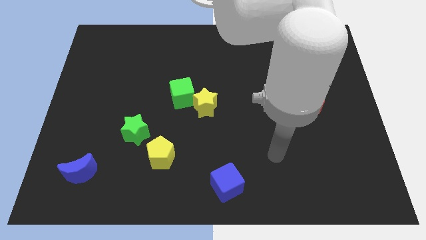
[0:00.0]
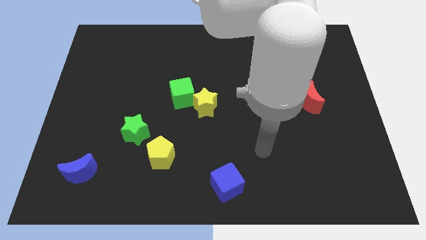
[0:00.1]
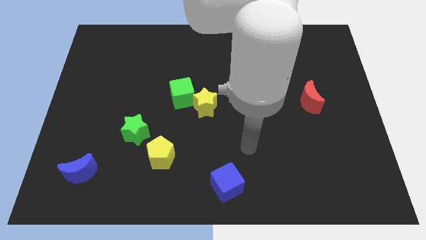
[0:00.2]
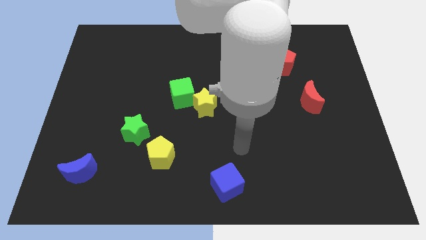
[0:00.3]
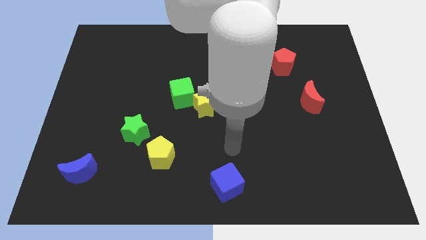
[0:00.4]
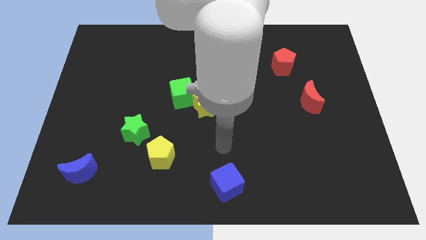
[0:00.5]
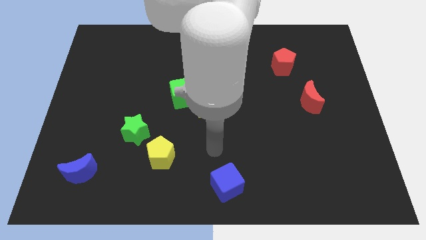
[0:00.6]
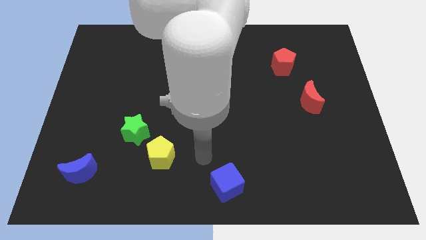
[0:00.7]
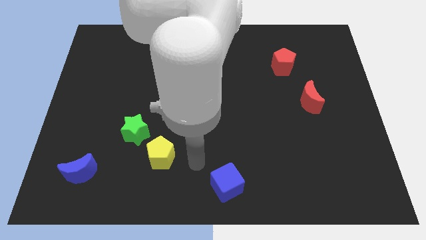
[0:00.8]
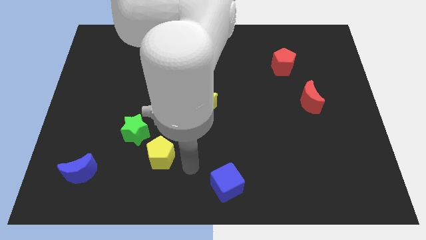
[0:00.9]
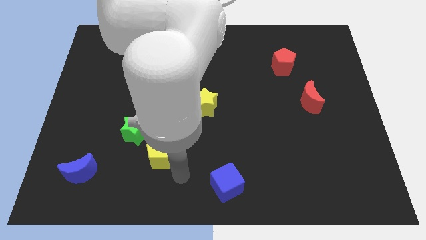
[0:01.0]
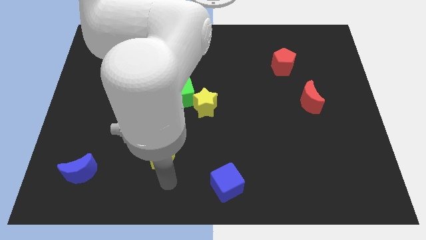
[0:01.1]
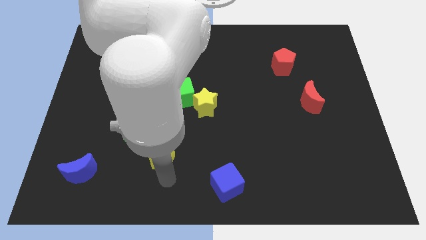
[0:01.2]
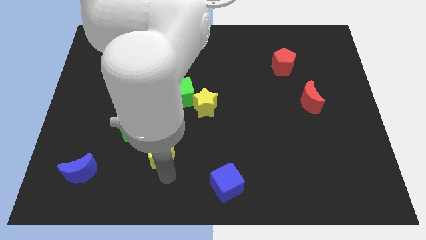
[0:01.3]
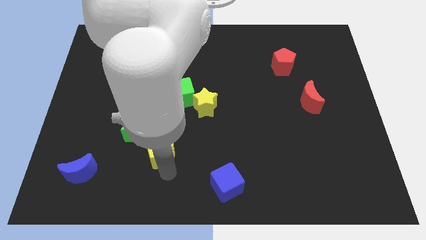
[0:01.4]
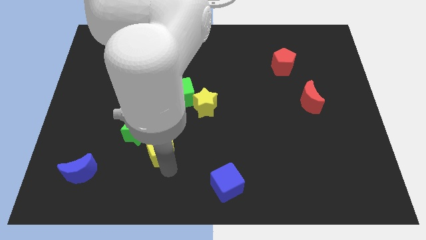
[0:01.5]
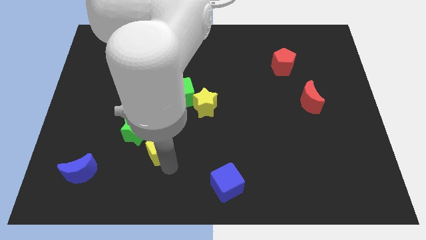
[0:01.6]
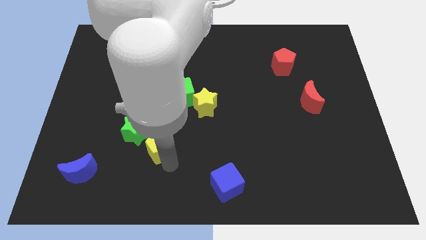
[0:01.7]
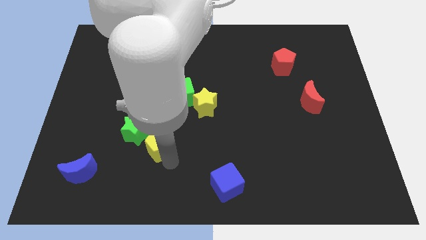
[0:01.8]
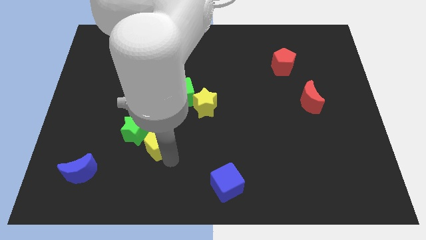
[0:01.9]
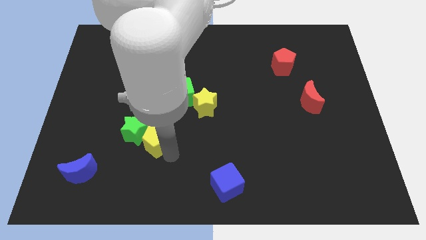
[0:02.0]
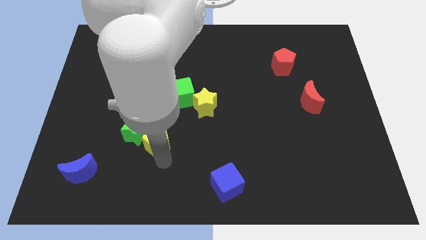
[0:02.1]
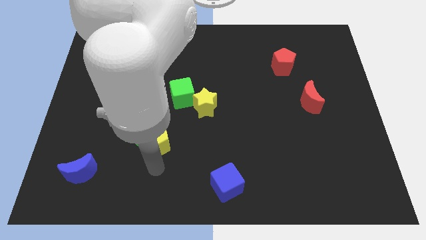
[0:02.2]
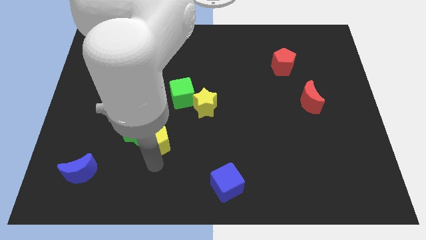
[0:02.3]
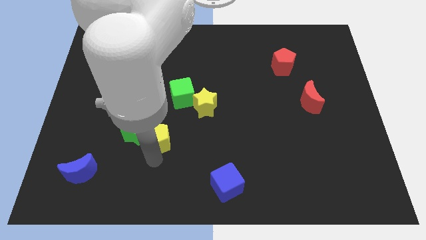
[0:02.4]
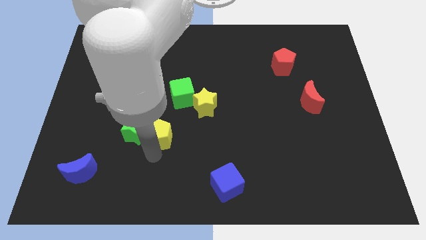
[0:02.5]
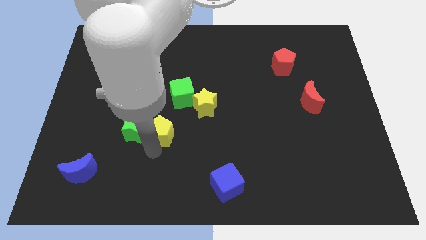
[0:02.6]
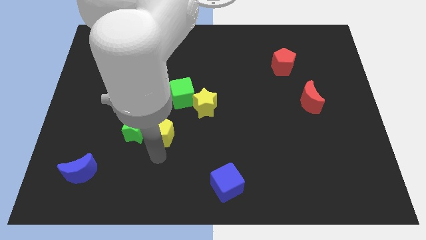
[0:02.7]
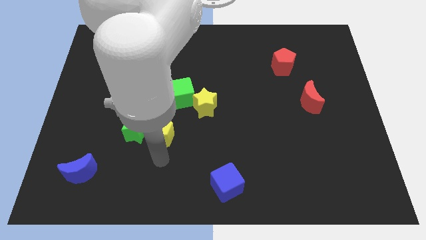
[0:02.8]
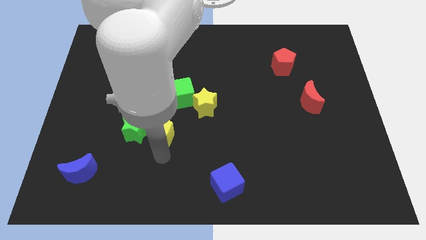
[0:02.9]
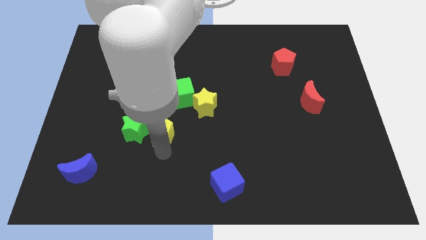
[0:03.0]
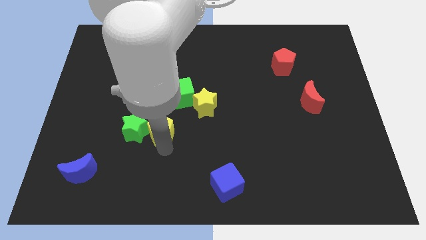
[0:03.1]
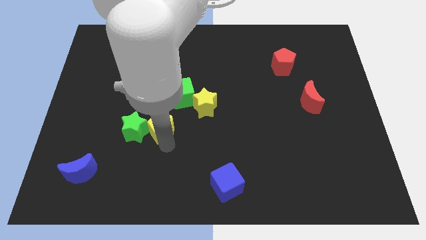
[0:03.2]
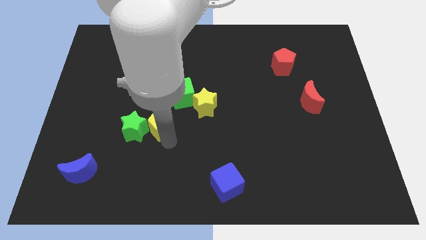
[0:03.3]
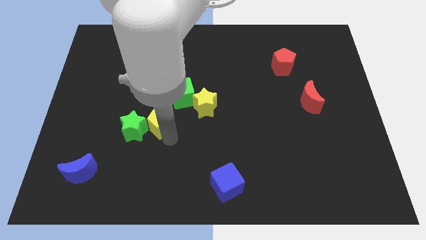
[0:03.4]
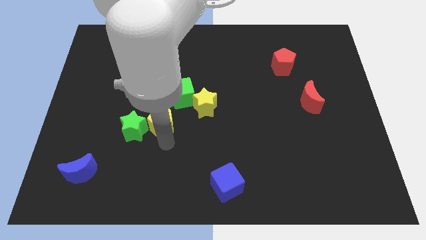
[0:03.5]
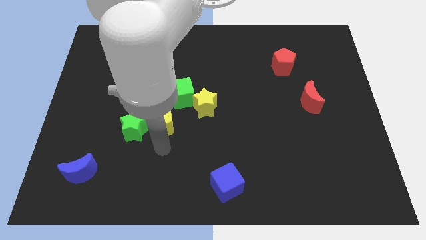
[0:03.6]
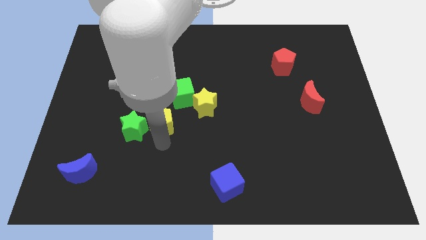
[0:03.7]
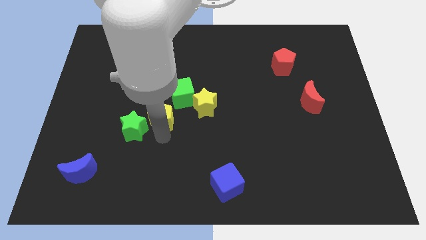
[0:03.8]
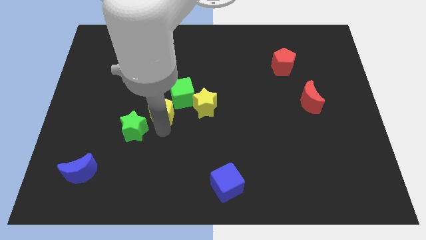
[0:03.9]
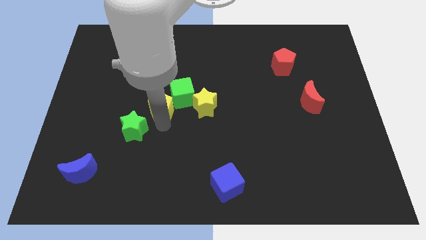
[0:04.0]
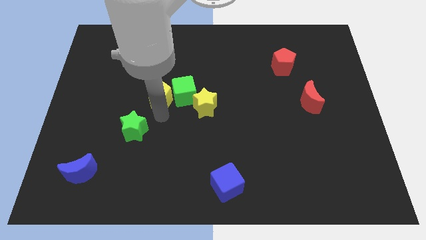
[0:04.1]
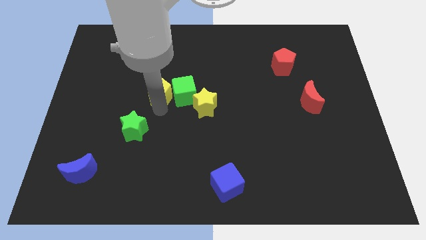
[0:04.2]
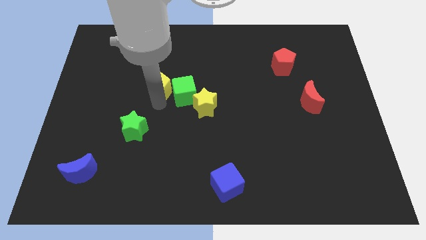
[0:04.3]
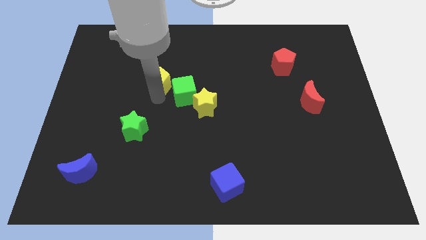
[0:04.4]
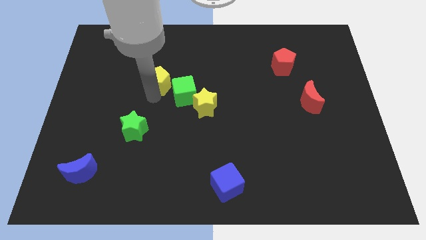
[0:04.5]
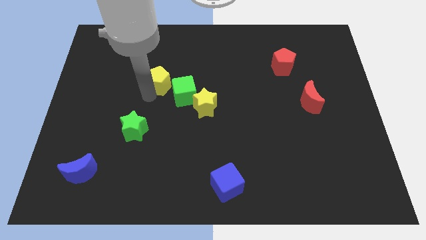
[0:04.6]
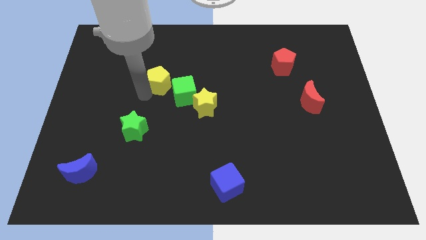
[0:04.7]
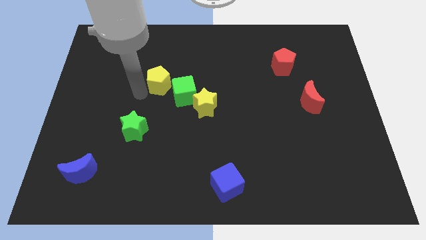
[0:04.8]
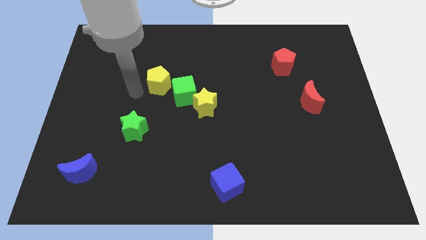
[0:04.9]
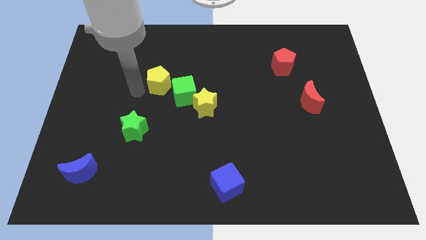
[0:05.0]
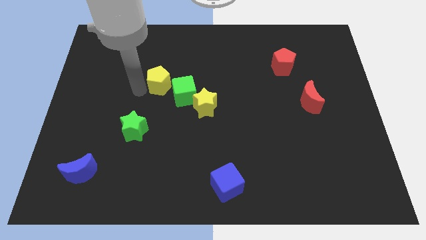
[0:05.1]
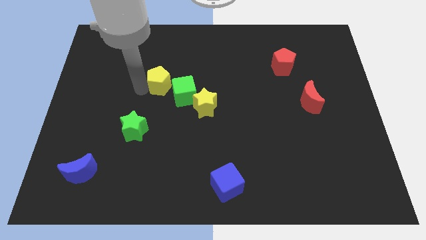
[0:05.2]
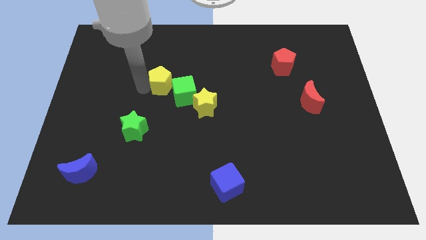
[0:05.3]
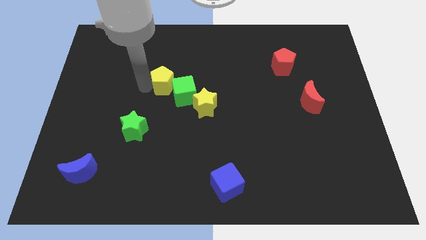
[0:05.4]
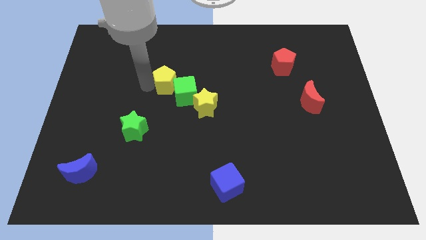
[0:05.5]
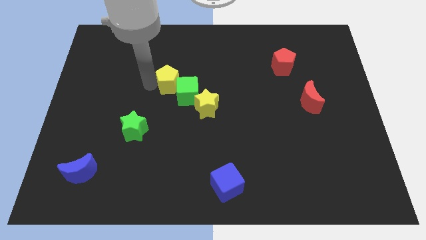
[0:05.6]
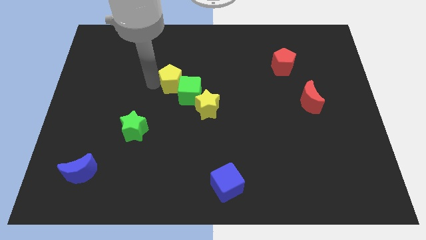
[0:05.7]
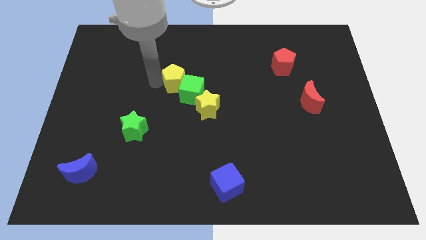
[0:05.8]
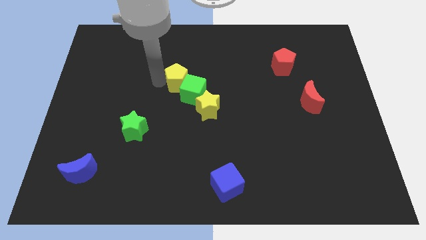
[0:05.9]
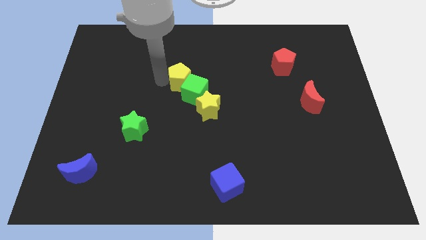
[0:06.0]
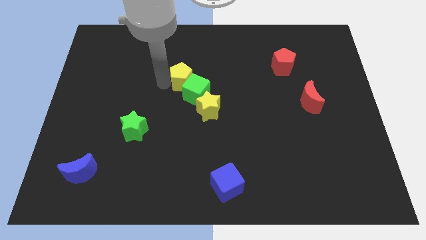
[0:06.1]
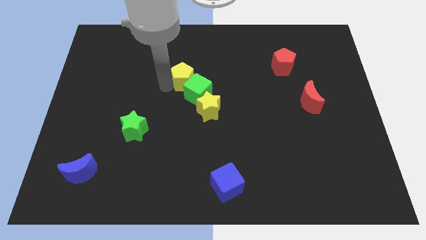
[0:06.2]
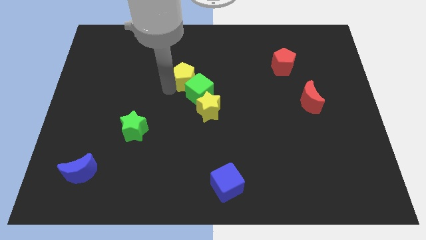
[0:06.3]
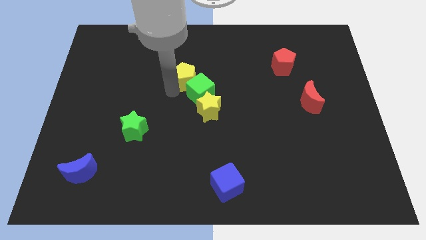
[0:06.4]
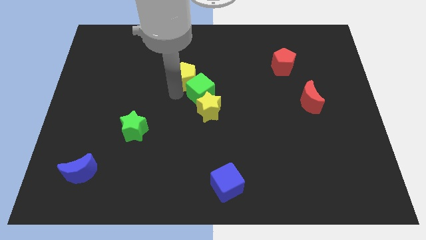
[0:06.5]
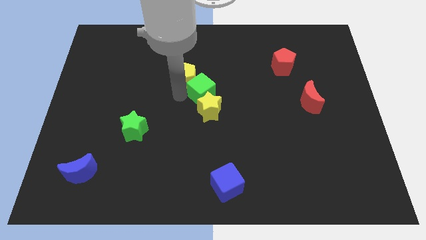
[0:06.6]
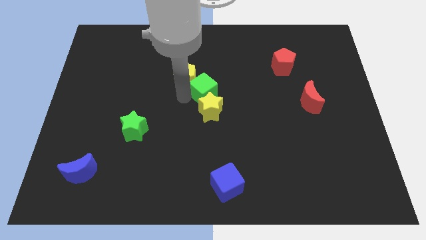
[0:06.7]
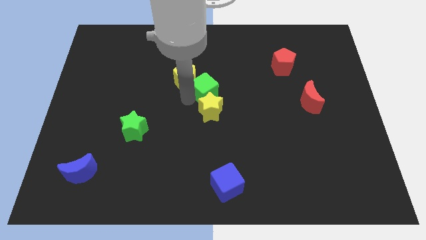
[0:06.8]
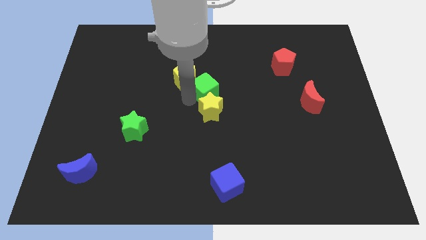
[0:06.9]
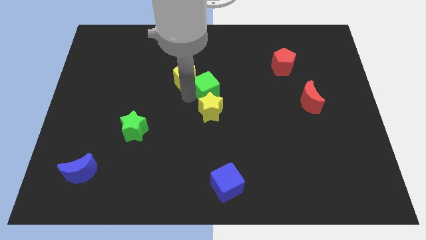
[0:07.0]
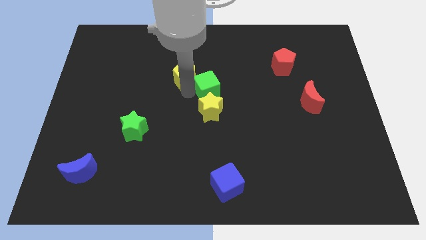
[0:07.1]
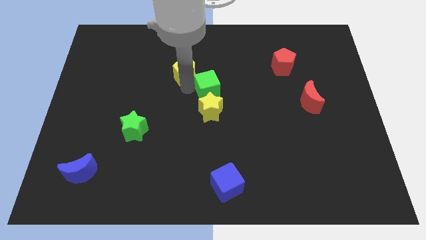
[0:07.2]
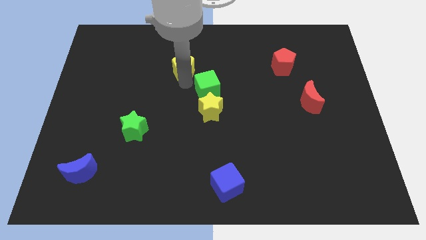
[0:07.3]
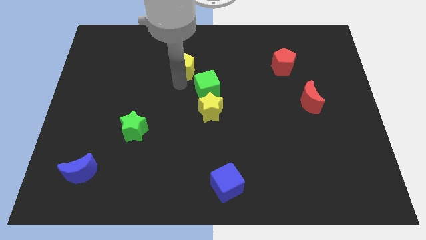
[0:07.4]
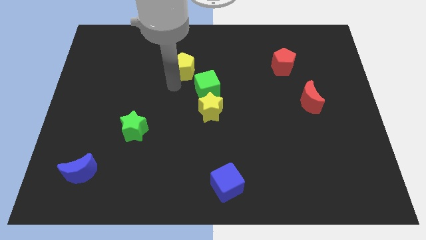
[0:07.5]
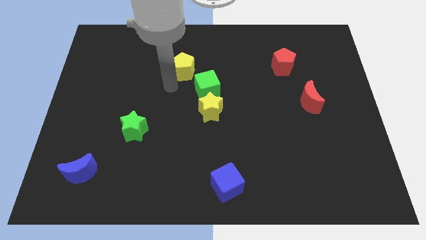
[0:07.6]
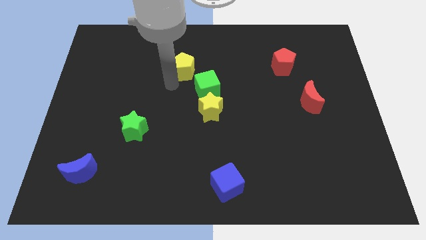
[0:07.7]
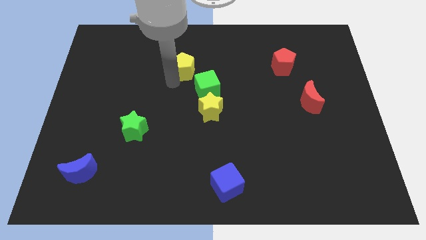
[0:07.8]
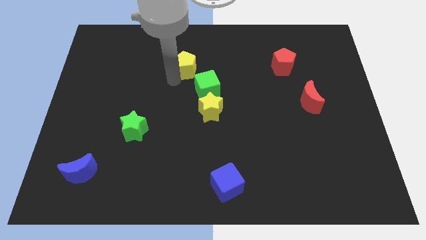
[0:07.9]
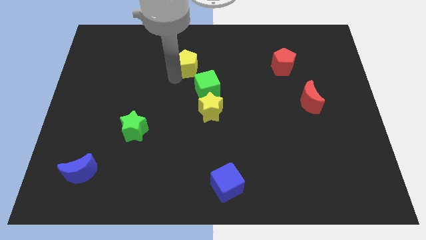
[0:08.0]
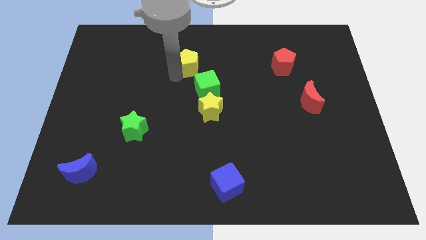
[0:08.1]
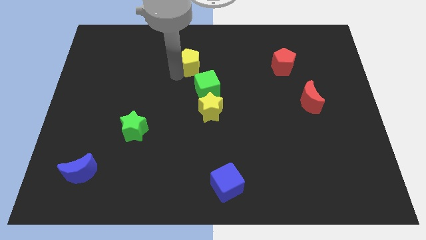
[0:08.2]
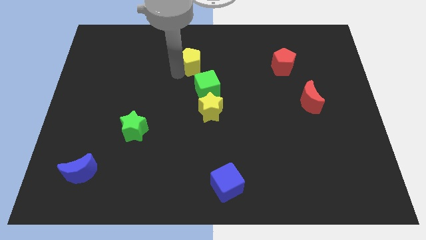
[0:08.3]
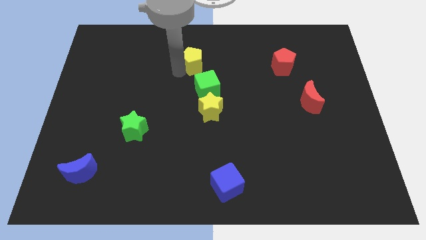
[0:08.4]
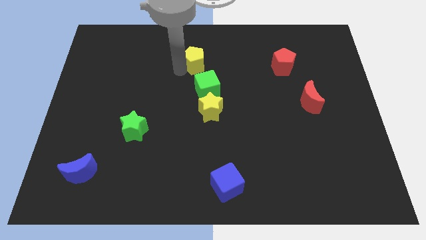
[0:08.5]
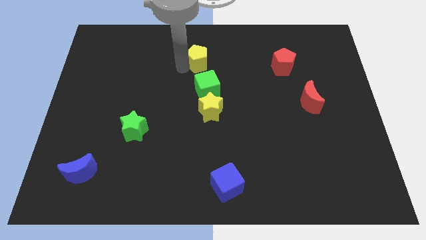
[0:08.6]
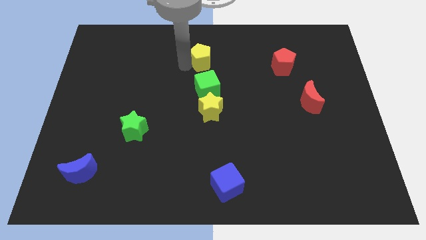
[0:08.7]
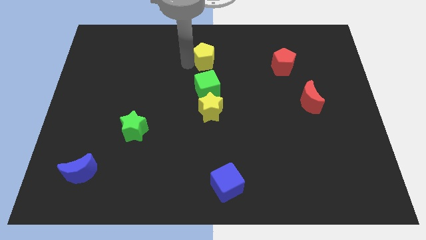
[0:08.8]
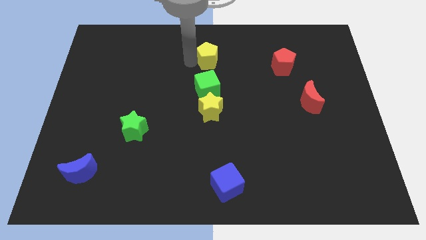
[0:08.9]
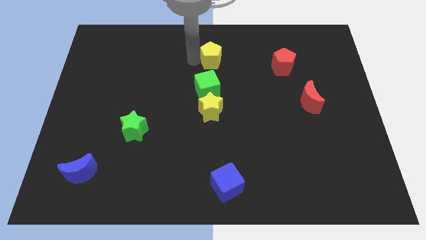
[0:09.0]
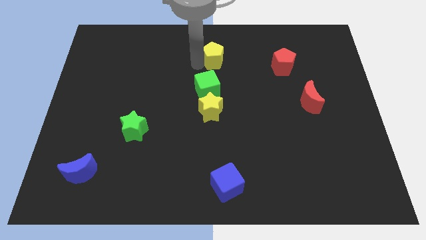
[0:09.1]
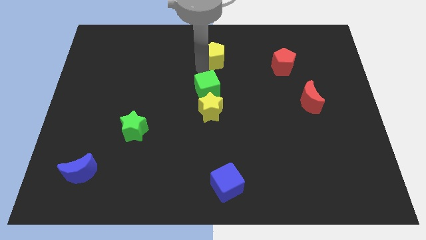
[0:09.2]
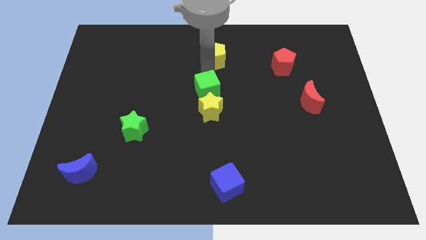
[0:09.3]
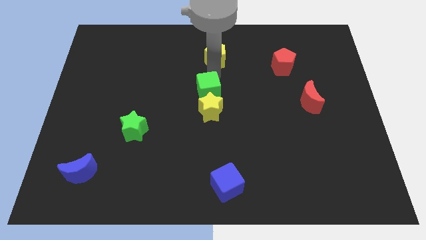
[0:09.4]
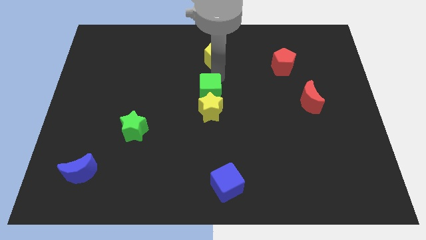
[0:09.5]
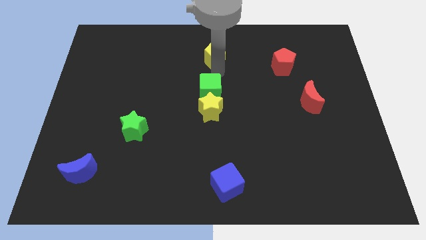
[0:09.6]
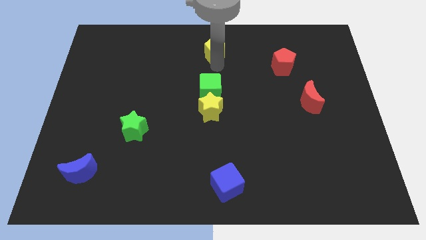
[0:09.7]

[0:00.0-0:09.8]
put the yellow pentagon to the towards your base
